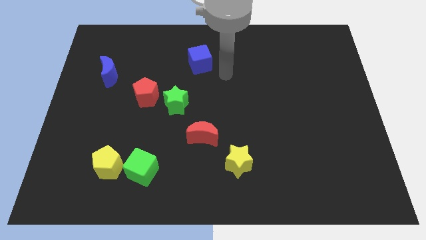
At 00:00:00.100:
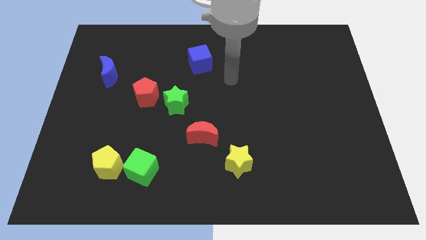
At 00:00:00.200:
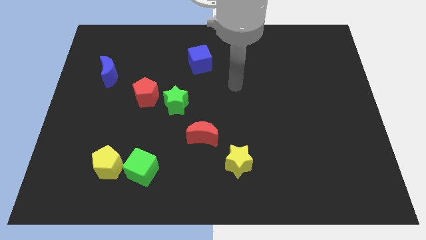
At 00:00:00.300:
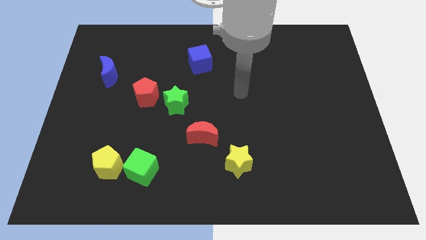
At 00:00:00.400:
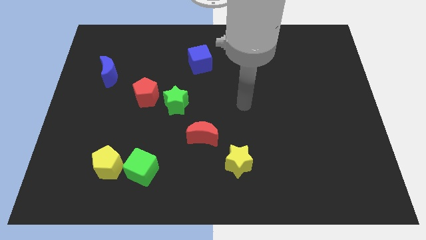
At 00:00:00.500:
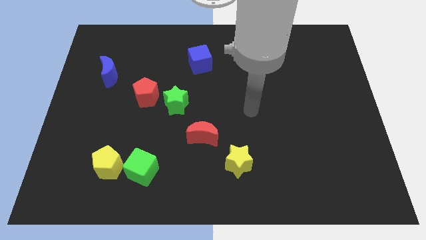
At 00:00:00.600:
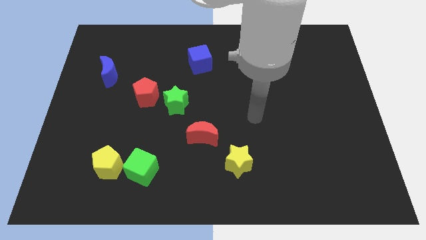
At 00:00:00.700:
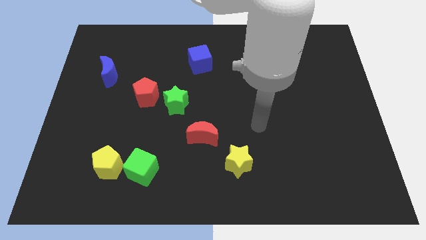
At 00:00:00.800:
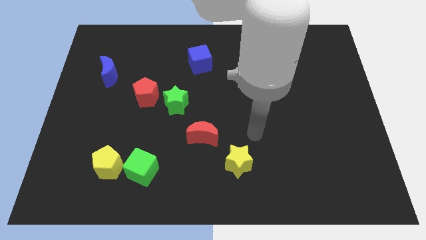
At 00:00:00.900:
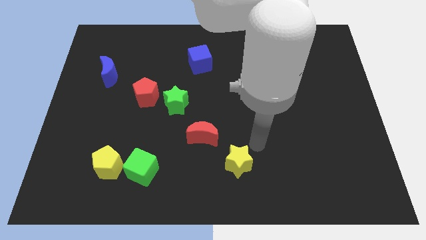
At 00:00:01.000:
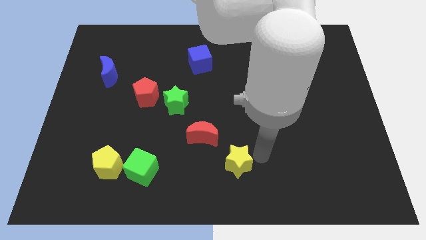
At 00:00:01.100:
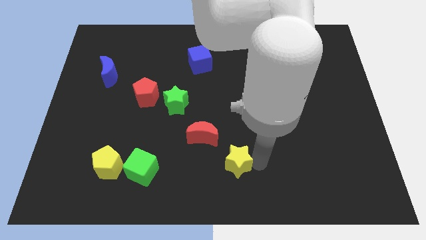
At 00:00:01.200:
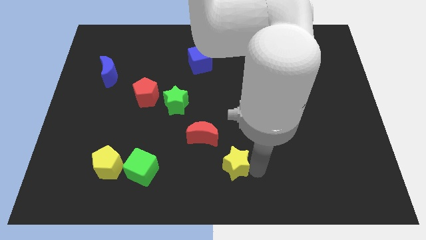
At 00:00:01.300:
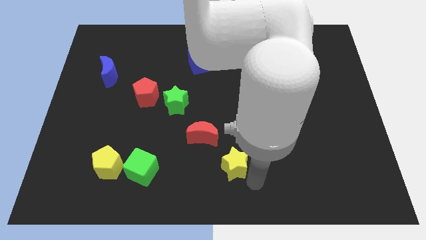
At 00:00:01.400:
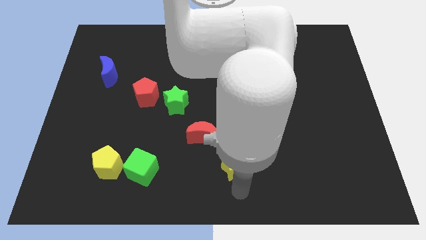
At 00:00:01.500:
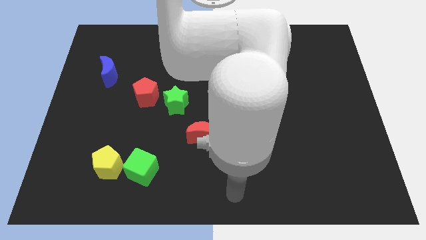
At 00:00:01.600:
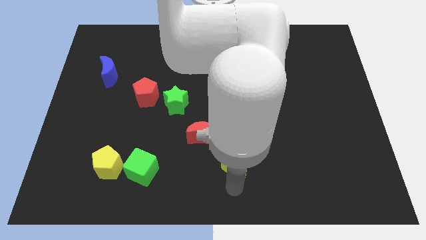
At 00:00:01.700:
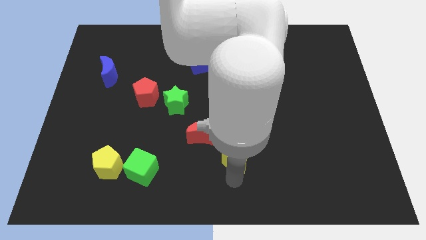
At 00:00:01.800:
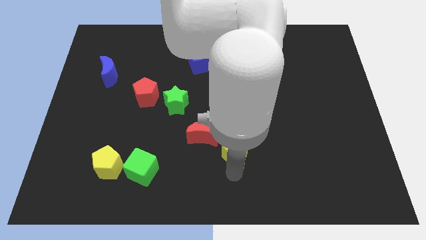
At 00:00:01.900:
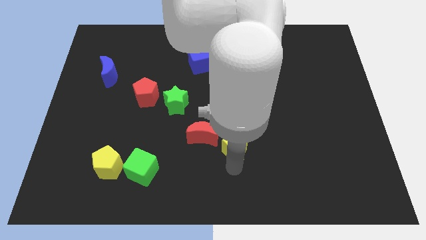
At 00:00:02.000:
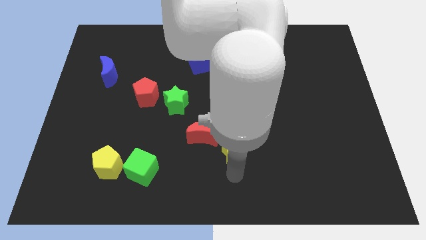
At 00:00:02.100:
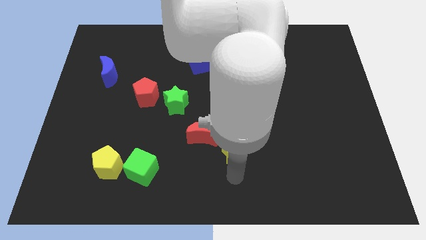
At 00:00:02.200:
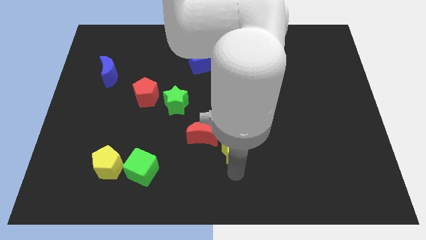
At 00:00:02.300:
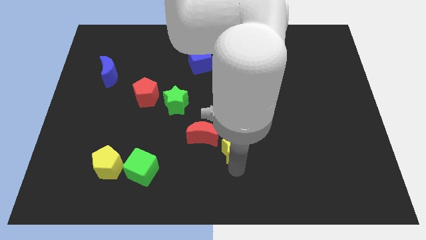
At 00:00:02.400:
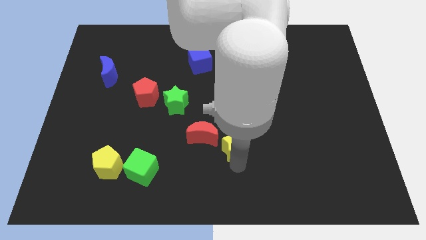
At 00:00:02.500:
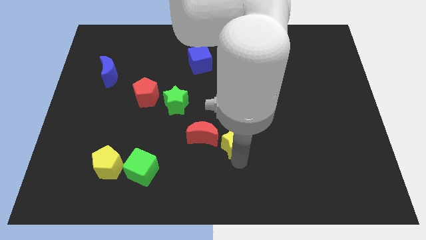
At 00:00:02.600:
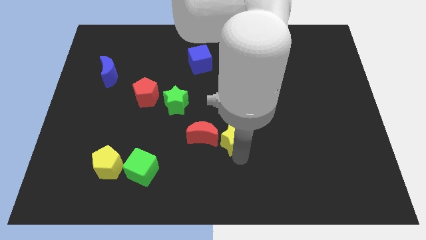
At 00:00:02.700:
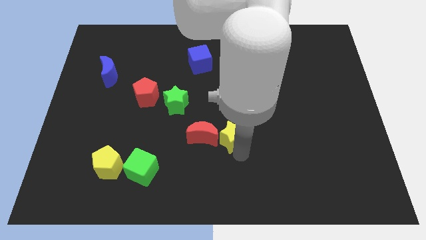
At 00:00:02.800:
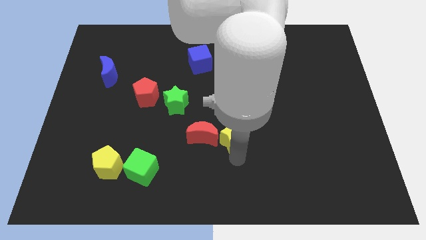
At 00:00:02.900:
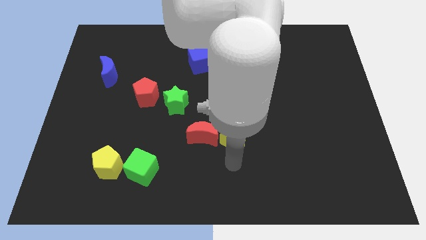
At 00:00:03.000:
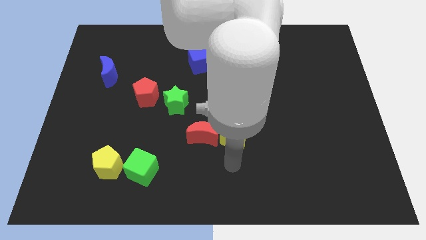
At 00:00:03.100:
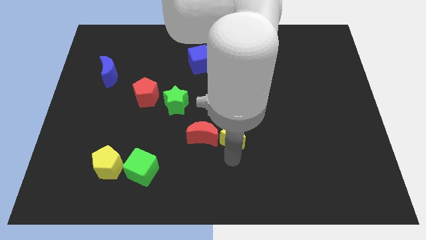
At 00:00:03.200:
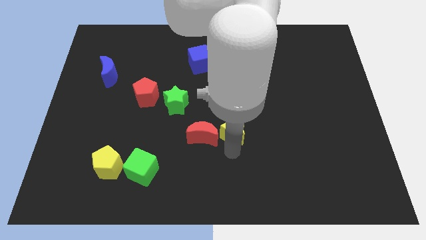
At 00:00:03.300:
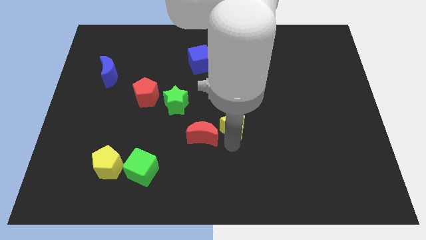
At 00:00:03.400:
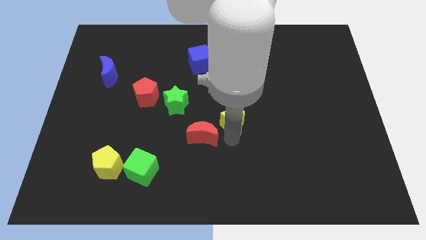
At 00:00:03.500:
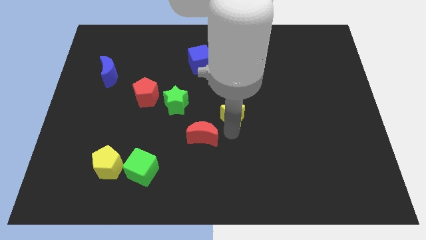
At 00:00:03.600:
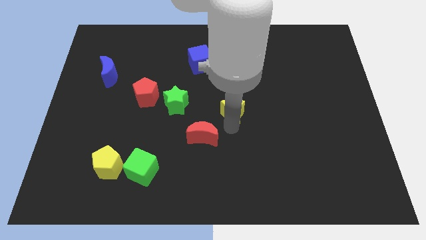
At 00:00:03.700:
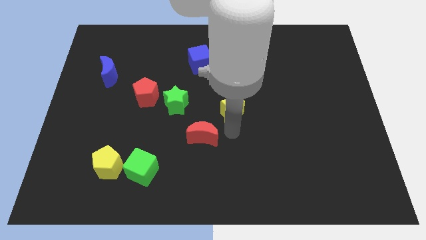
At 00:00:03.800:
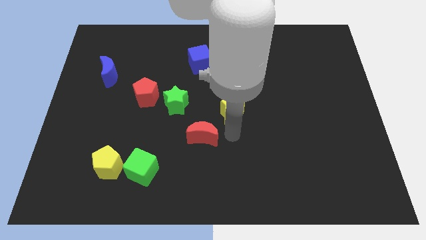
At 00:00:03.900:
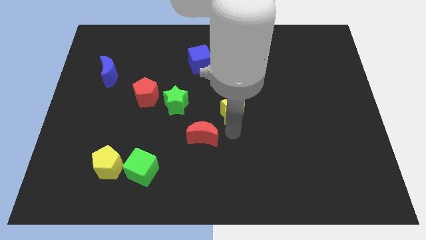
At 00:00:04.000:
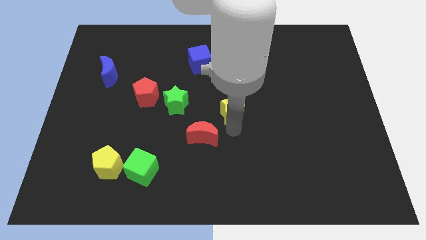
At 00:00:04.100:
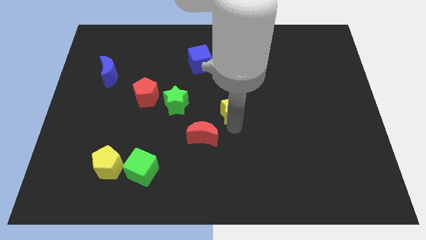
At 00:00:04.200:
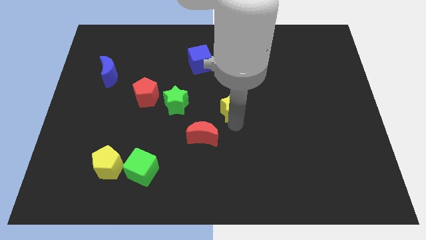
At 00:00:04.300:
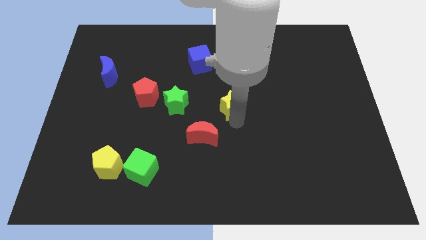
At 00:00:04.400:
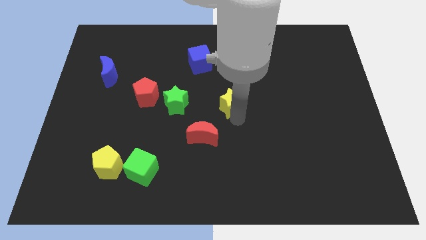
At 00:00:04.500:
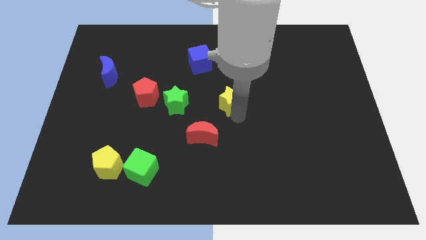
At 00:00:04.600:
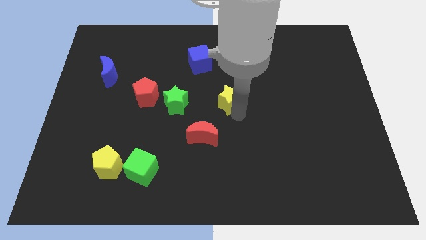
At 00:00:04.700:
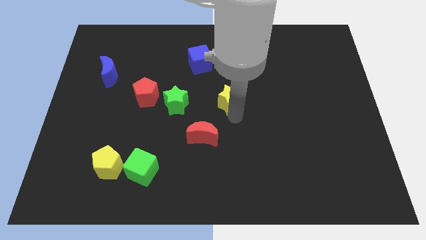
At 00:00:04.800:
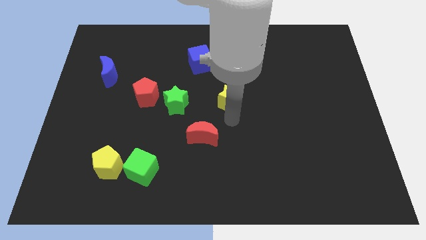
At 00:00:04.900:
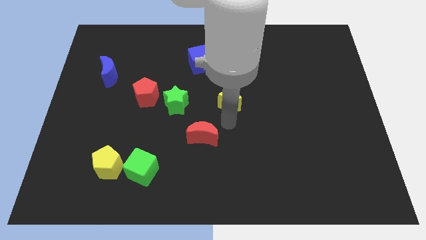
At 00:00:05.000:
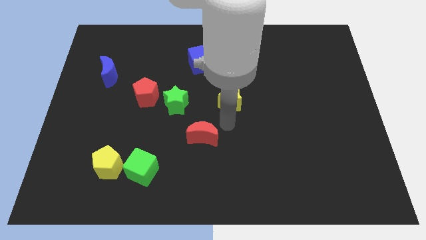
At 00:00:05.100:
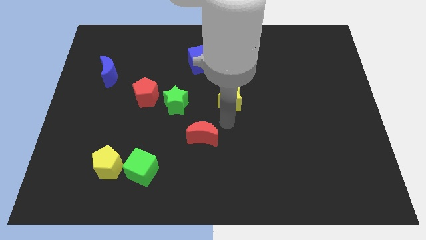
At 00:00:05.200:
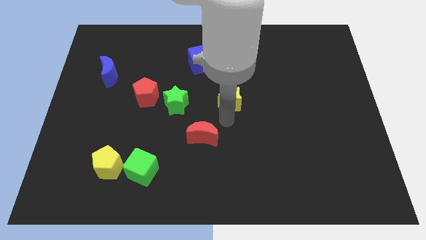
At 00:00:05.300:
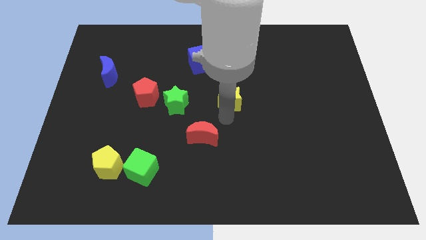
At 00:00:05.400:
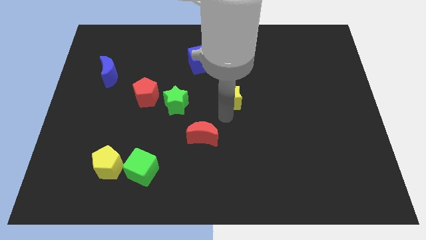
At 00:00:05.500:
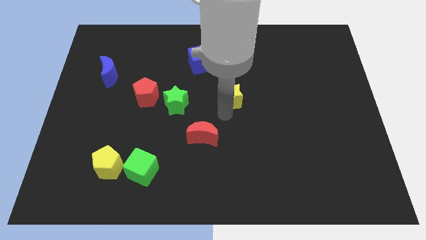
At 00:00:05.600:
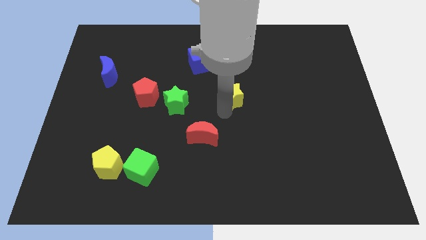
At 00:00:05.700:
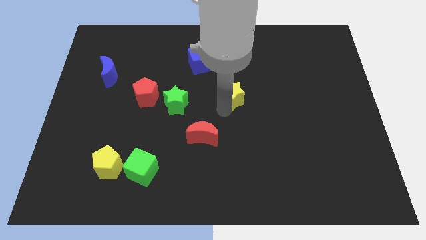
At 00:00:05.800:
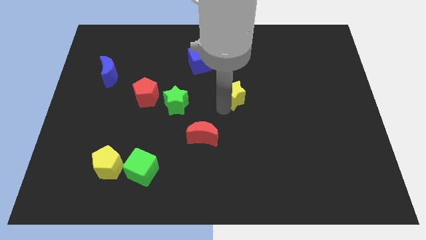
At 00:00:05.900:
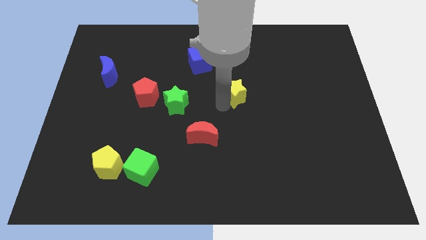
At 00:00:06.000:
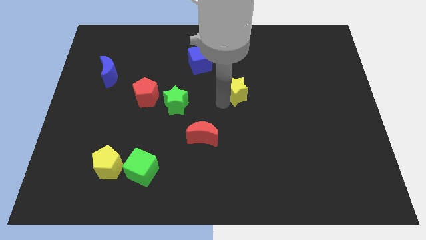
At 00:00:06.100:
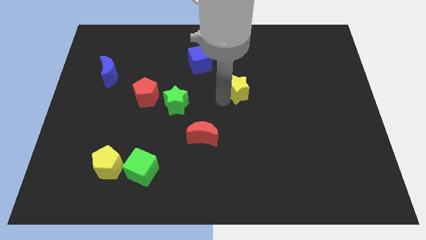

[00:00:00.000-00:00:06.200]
move the yellow star upwards

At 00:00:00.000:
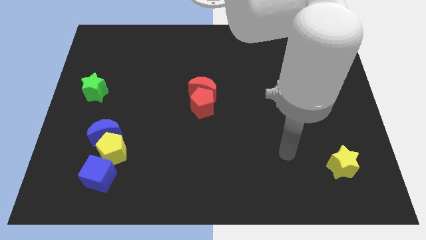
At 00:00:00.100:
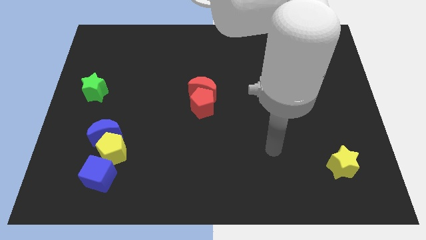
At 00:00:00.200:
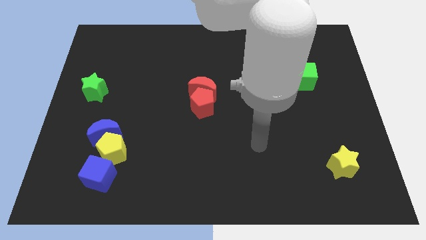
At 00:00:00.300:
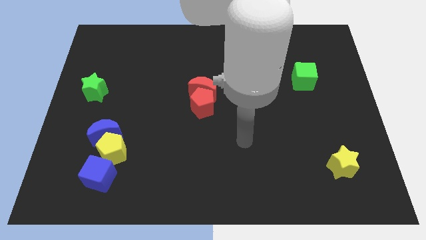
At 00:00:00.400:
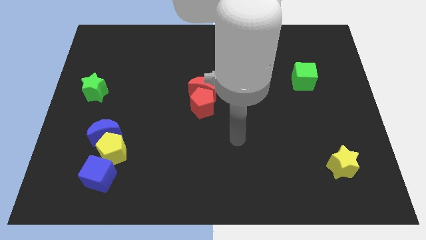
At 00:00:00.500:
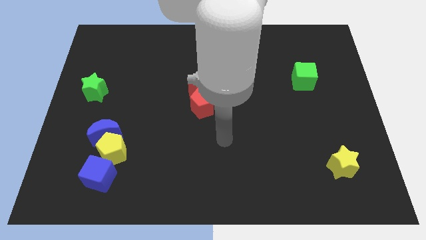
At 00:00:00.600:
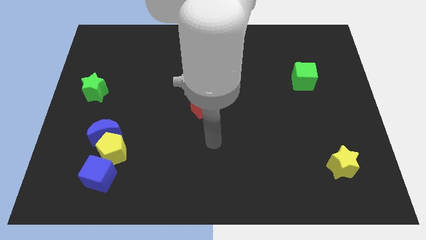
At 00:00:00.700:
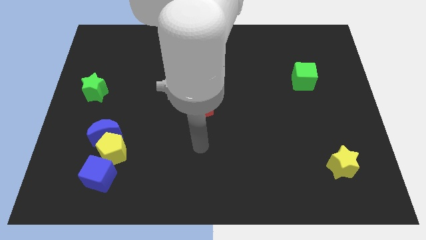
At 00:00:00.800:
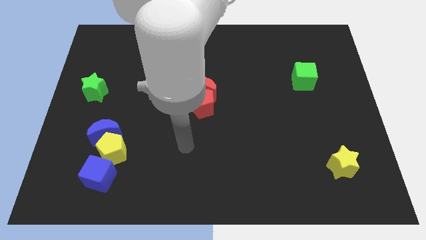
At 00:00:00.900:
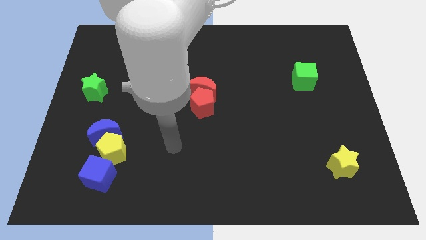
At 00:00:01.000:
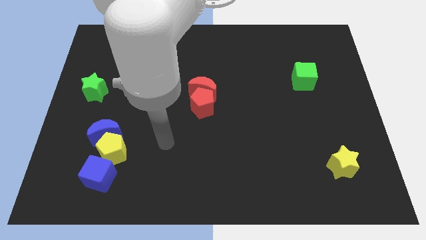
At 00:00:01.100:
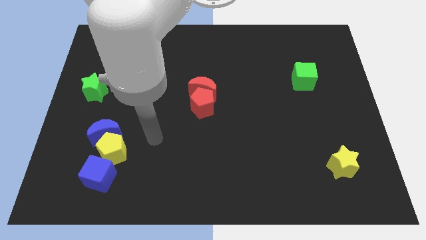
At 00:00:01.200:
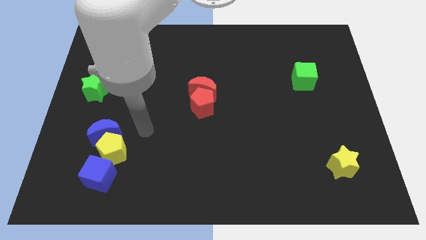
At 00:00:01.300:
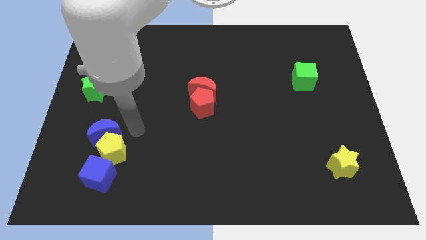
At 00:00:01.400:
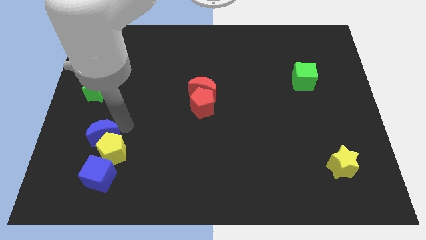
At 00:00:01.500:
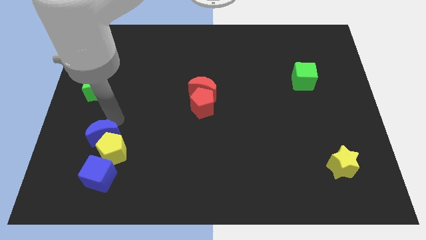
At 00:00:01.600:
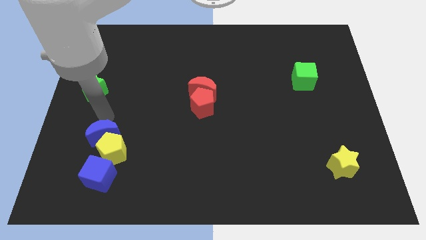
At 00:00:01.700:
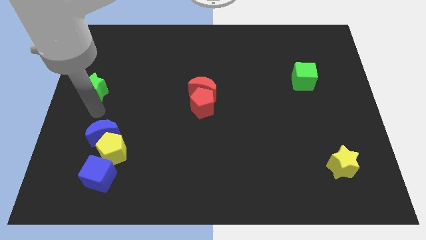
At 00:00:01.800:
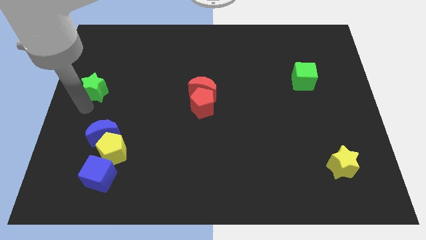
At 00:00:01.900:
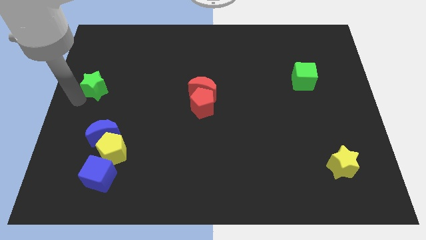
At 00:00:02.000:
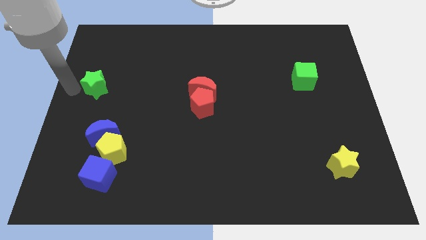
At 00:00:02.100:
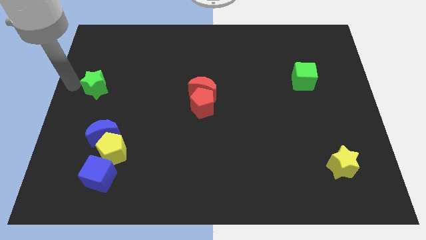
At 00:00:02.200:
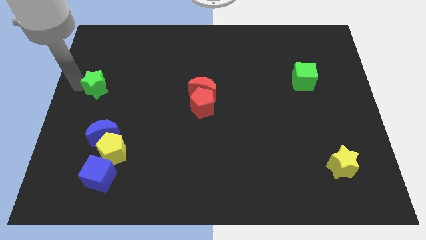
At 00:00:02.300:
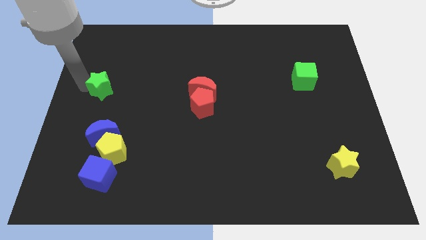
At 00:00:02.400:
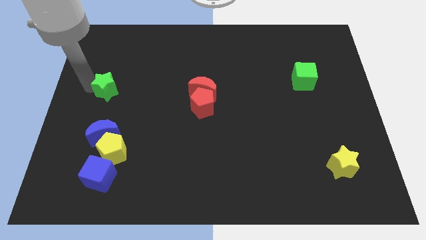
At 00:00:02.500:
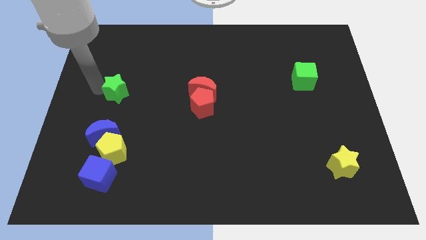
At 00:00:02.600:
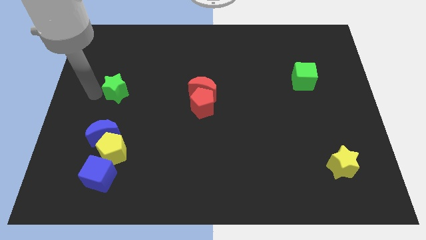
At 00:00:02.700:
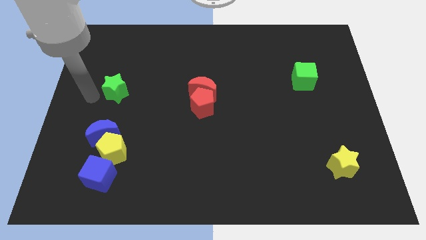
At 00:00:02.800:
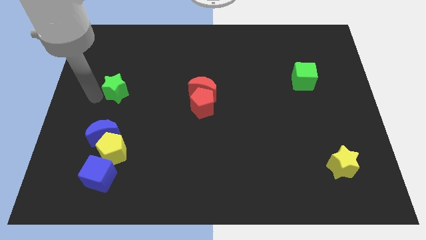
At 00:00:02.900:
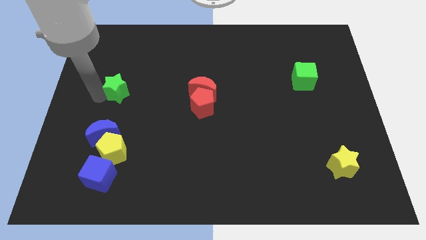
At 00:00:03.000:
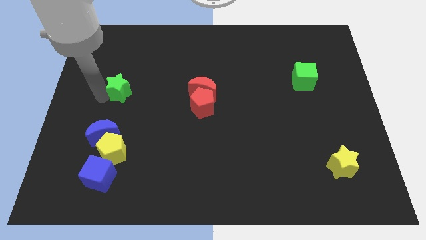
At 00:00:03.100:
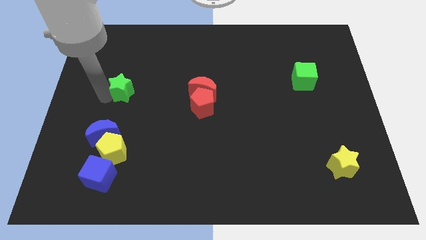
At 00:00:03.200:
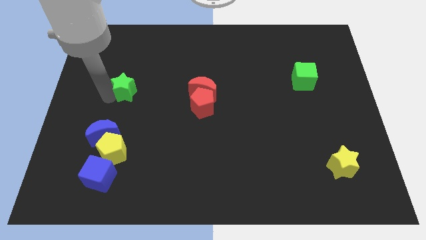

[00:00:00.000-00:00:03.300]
push the green star right somewhat
